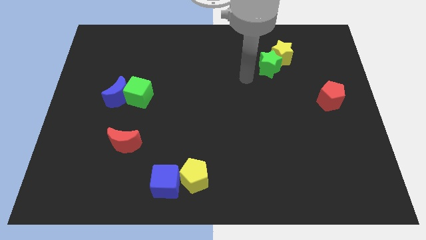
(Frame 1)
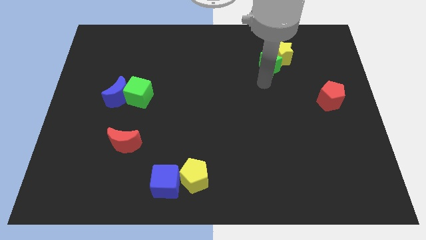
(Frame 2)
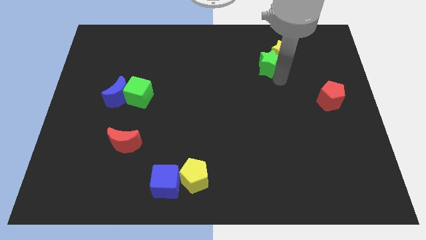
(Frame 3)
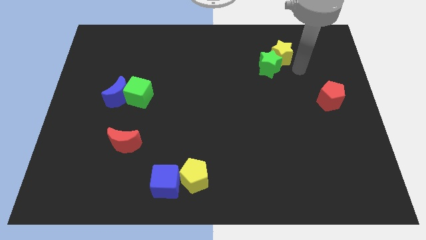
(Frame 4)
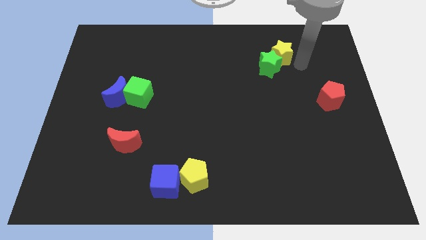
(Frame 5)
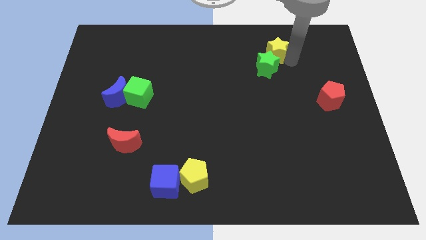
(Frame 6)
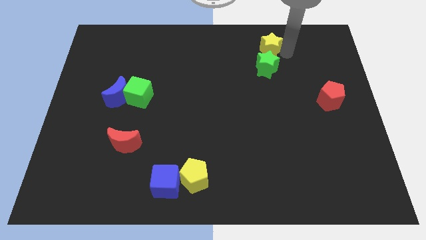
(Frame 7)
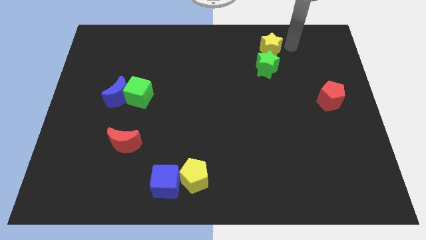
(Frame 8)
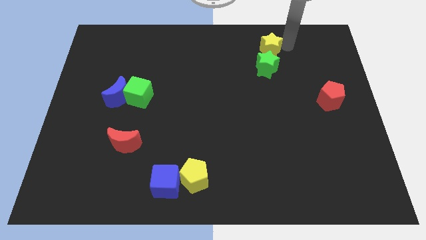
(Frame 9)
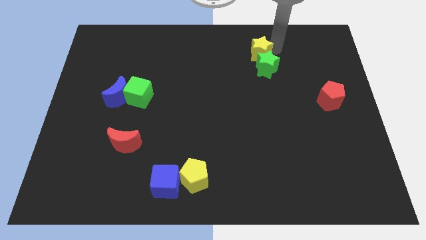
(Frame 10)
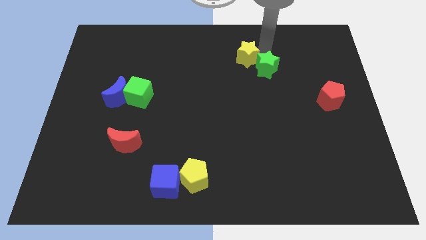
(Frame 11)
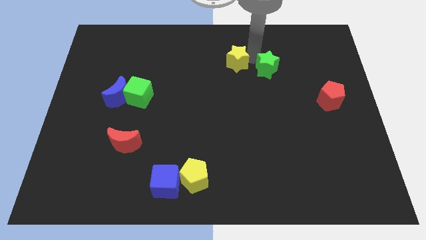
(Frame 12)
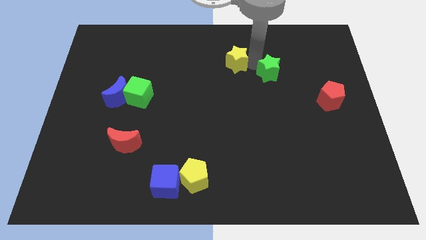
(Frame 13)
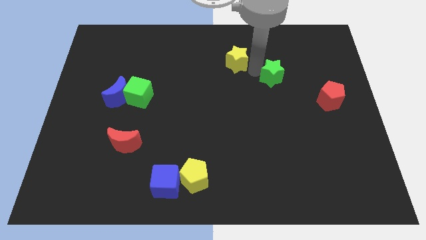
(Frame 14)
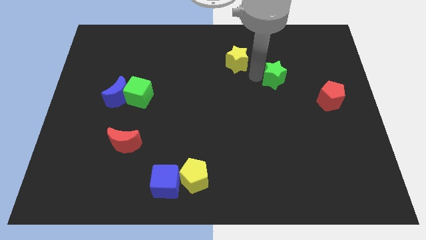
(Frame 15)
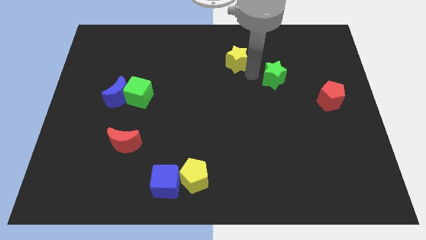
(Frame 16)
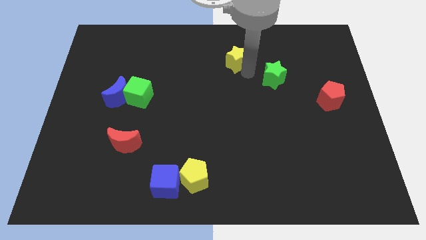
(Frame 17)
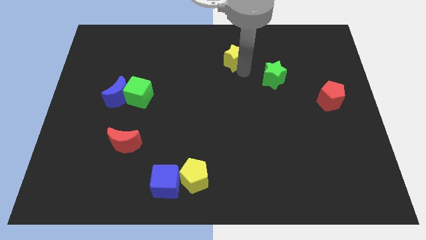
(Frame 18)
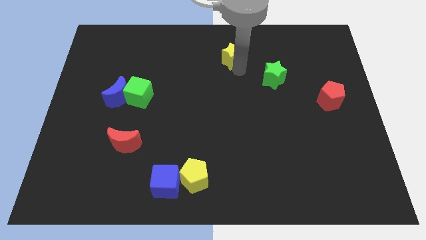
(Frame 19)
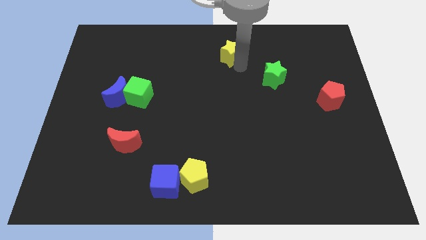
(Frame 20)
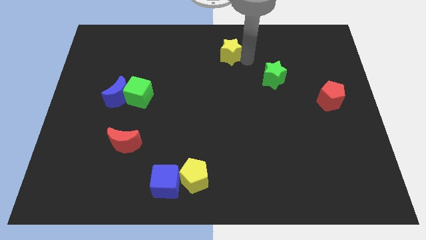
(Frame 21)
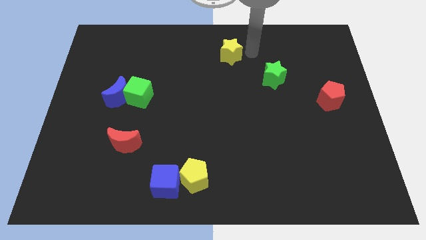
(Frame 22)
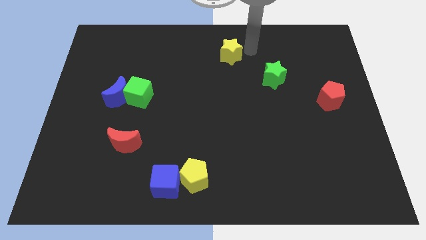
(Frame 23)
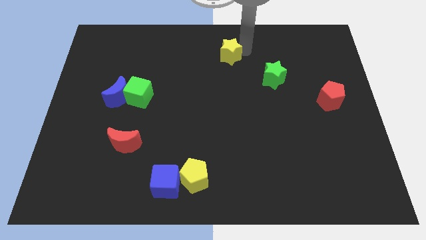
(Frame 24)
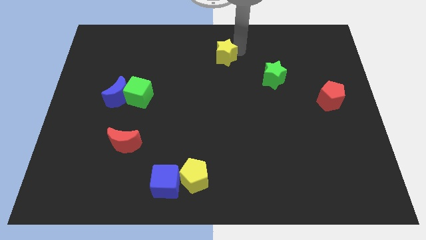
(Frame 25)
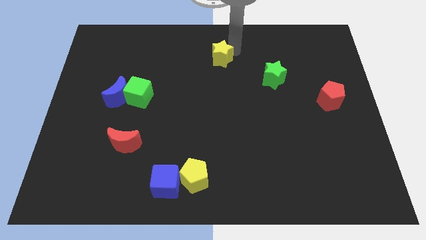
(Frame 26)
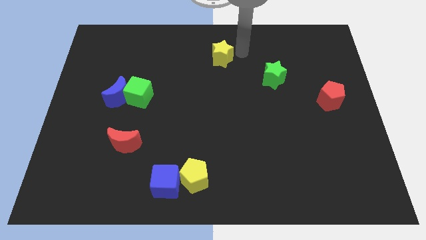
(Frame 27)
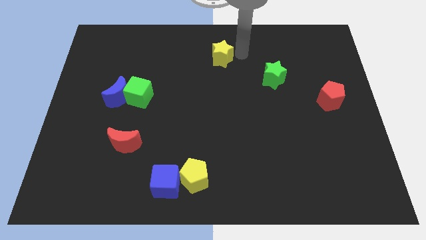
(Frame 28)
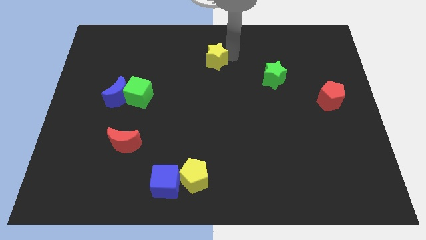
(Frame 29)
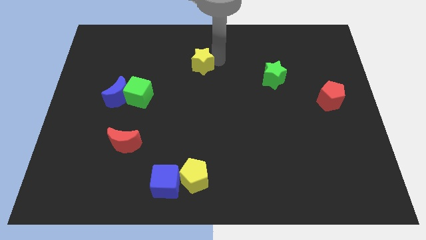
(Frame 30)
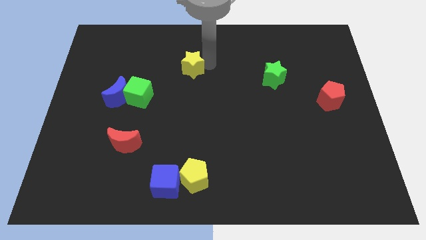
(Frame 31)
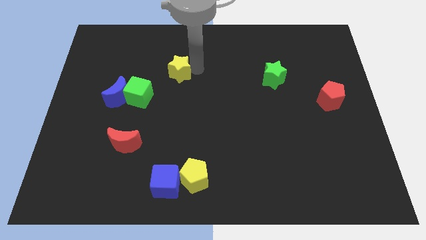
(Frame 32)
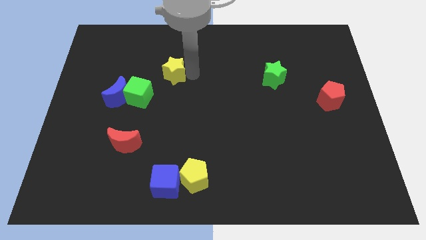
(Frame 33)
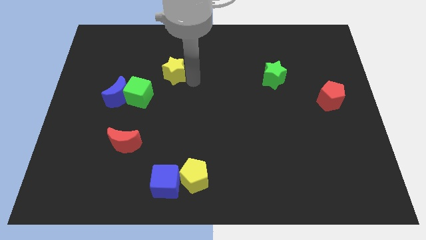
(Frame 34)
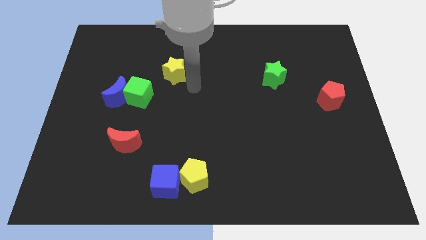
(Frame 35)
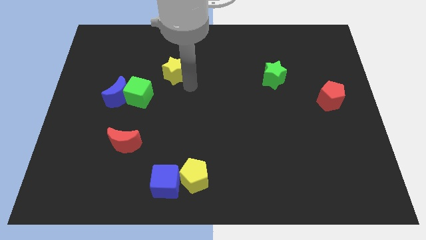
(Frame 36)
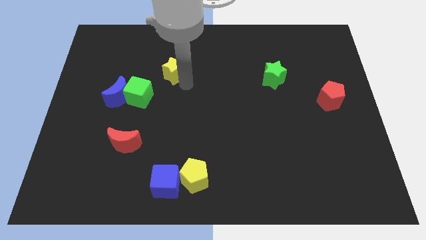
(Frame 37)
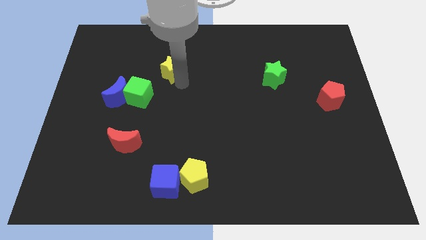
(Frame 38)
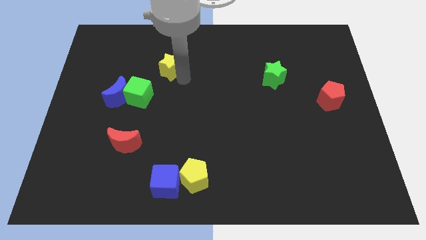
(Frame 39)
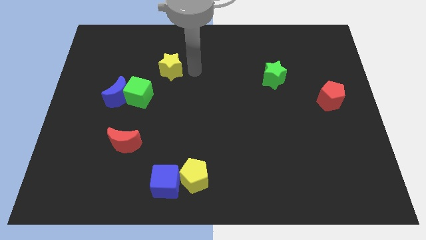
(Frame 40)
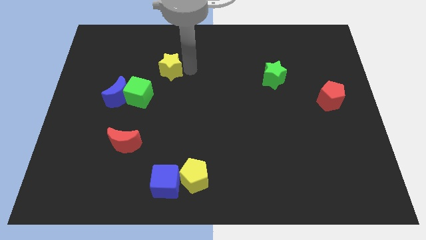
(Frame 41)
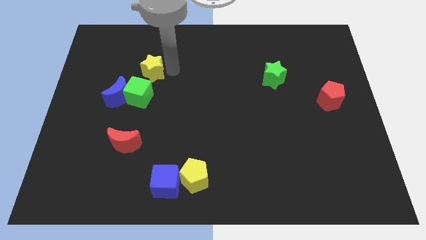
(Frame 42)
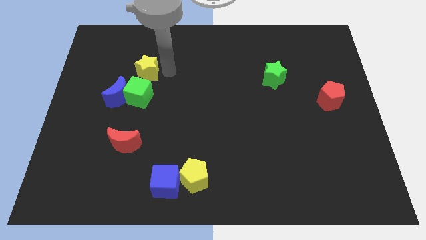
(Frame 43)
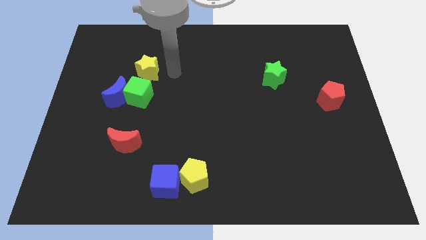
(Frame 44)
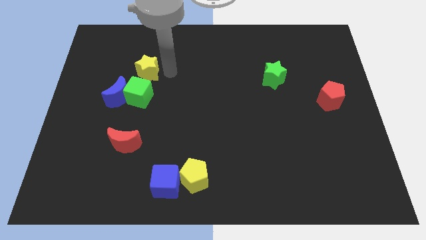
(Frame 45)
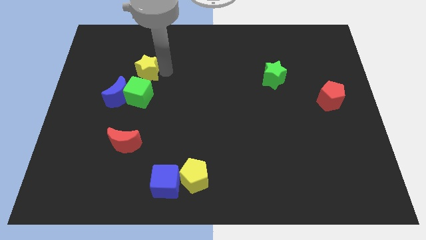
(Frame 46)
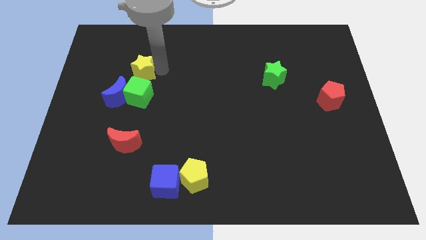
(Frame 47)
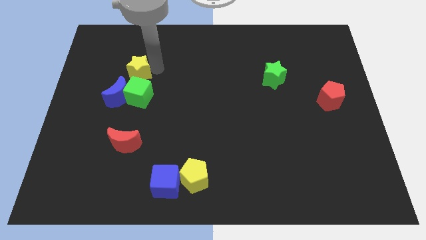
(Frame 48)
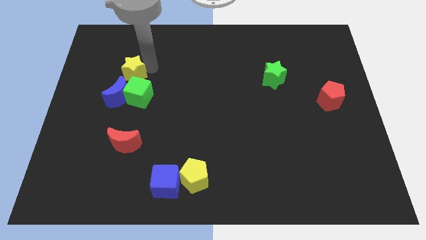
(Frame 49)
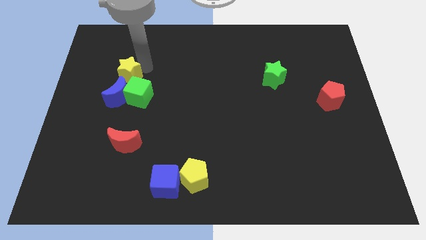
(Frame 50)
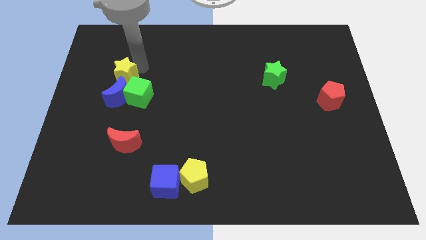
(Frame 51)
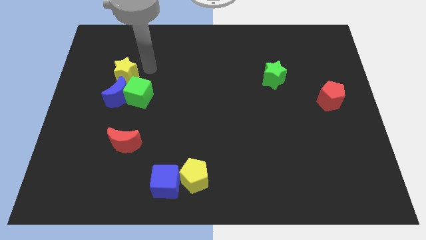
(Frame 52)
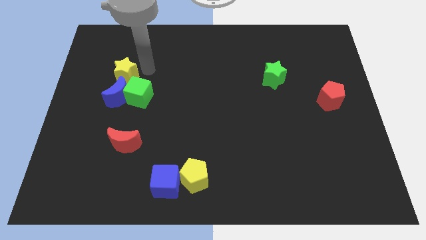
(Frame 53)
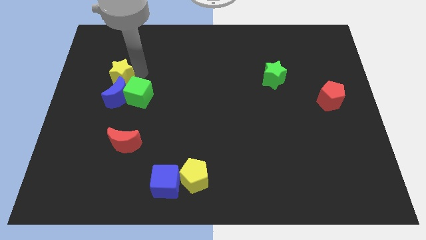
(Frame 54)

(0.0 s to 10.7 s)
push the yellow star towards the blue moon

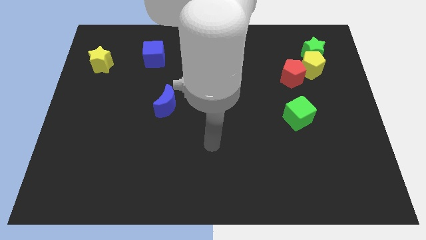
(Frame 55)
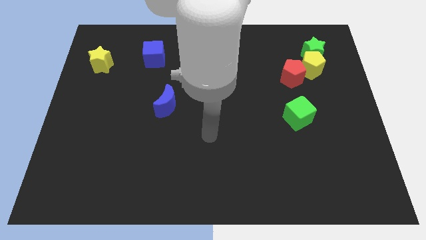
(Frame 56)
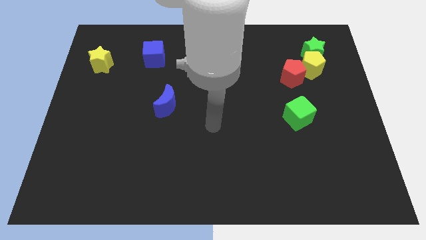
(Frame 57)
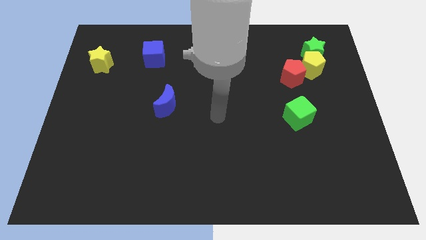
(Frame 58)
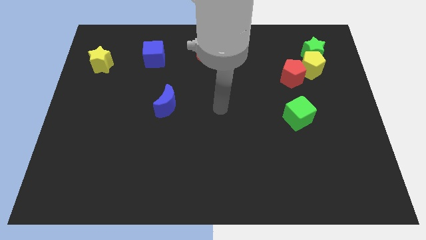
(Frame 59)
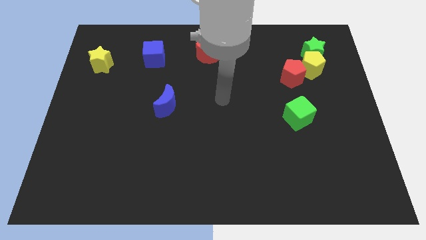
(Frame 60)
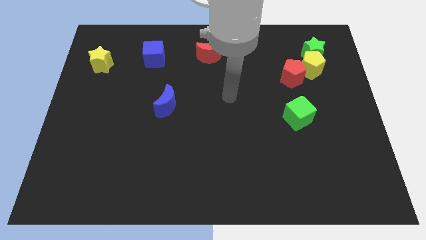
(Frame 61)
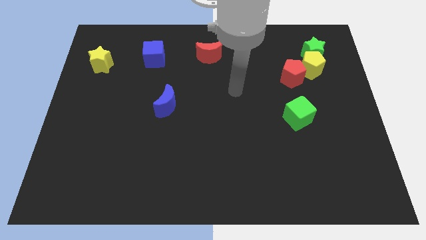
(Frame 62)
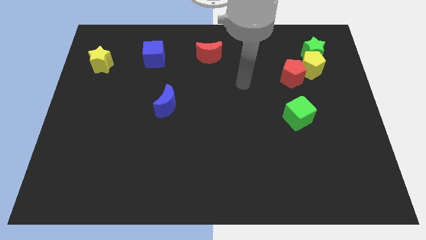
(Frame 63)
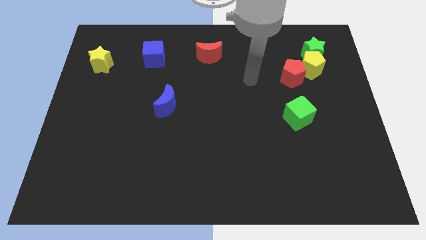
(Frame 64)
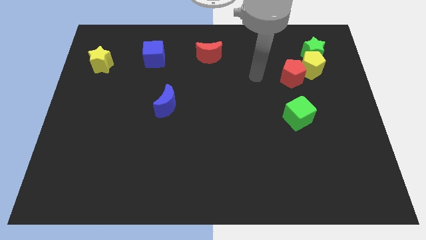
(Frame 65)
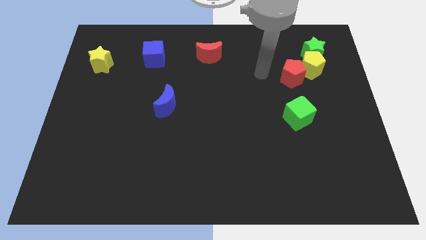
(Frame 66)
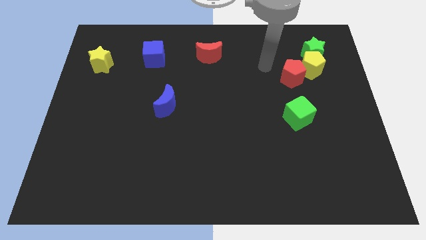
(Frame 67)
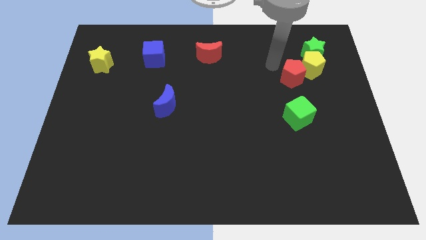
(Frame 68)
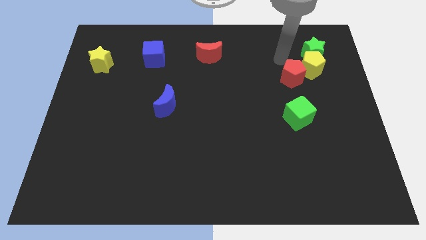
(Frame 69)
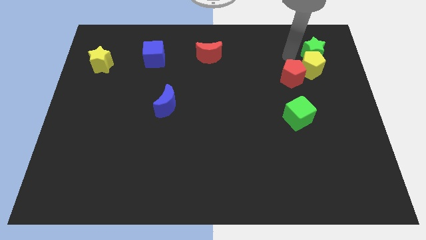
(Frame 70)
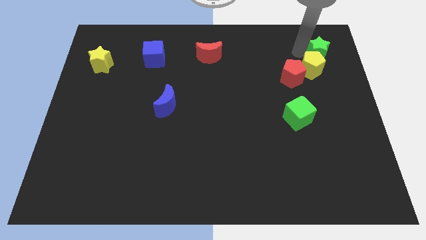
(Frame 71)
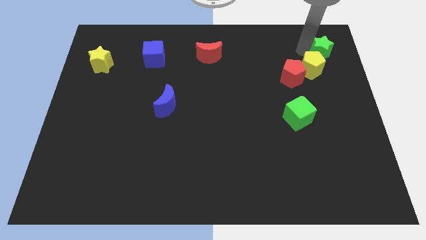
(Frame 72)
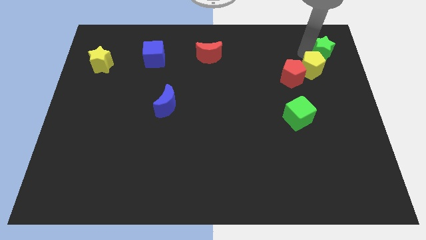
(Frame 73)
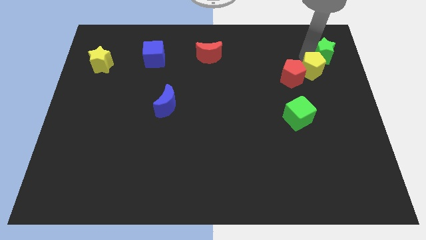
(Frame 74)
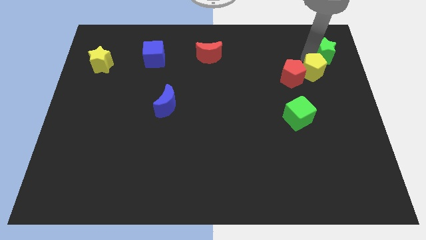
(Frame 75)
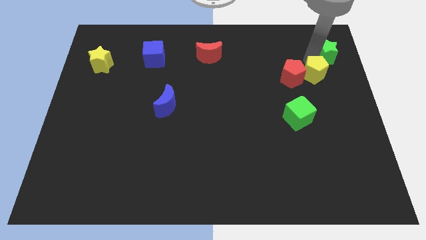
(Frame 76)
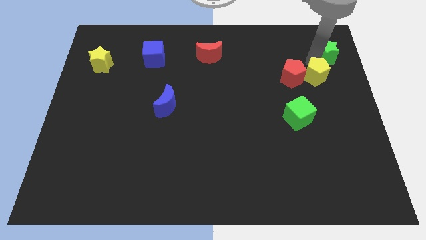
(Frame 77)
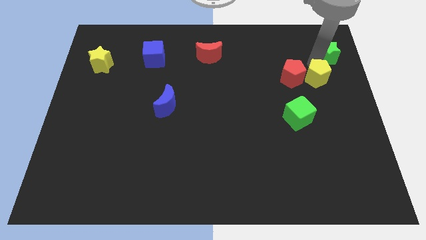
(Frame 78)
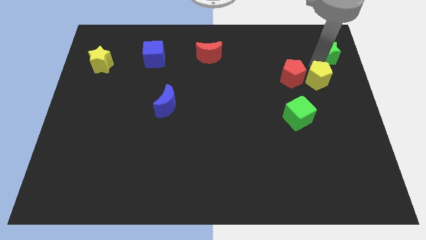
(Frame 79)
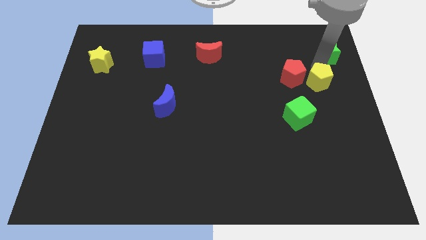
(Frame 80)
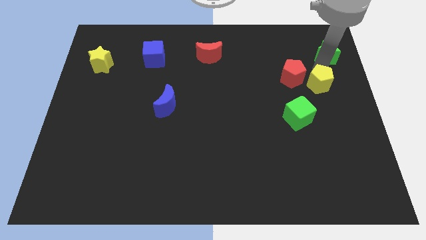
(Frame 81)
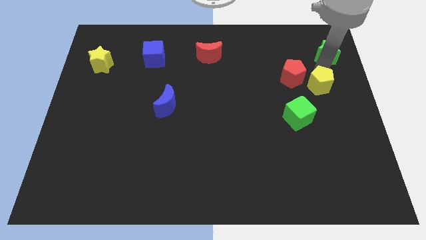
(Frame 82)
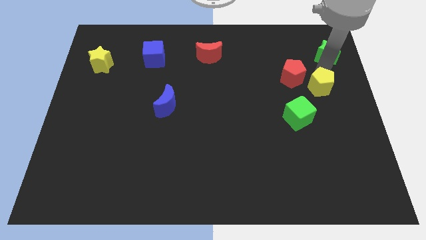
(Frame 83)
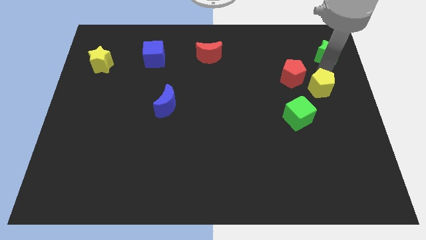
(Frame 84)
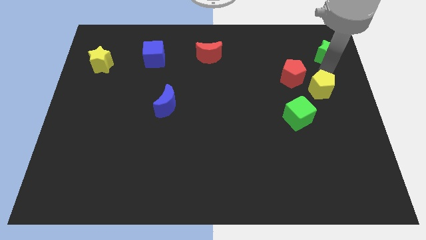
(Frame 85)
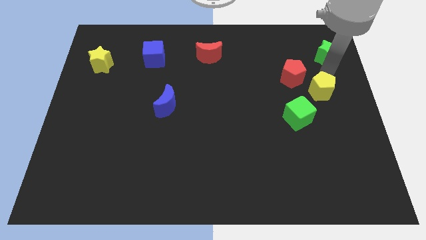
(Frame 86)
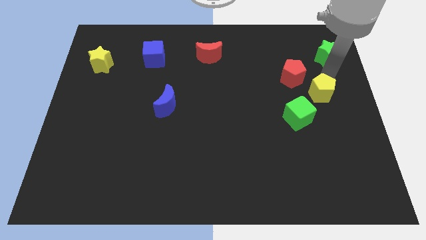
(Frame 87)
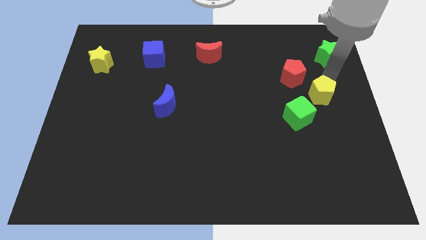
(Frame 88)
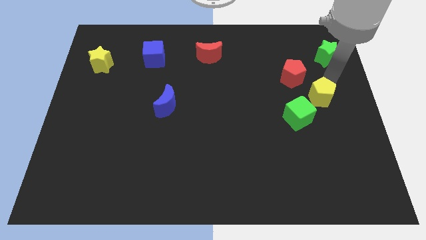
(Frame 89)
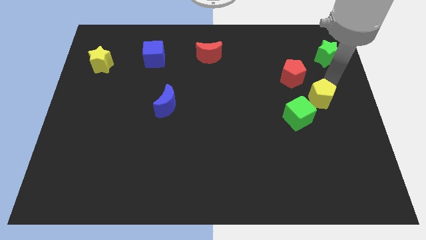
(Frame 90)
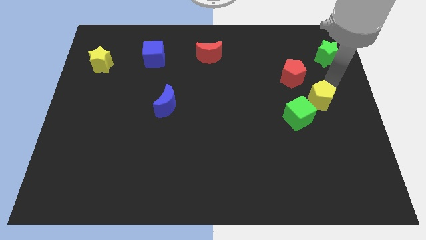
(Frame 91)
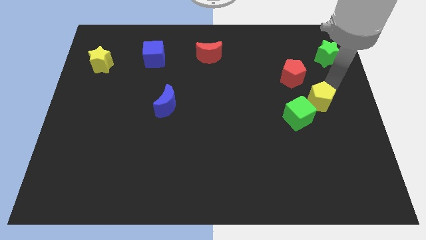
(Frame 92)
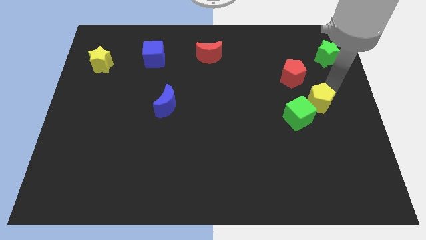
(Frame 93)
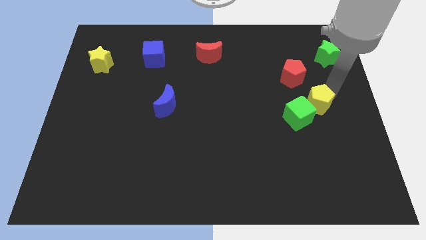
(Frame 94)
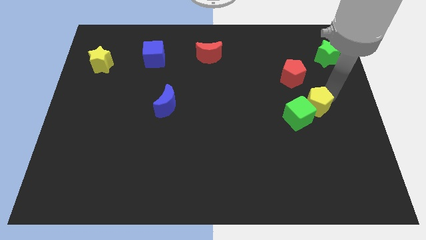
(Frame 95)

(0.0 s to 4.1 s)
slide the yellow pentagon towards the green cube
